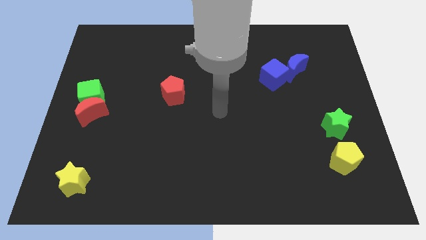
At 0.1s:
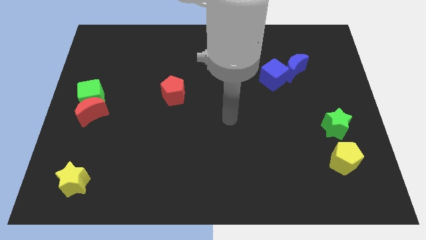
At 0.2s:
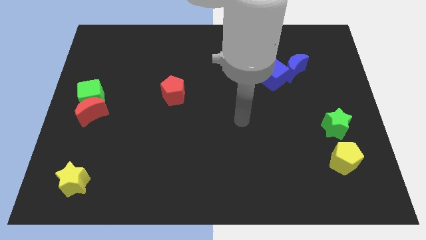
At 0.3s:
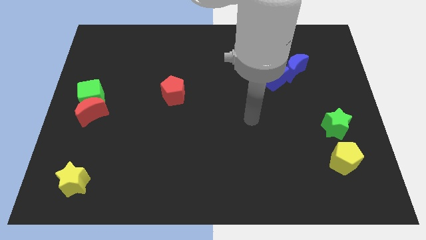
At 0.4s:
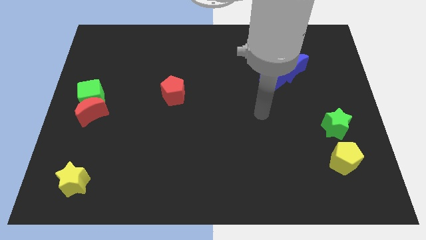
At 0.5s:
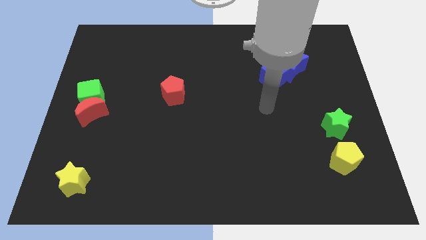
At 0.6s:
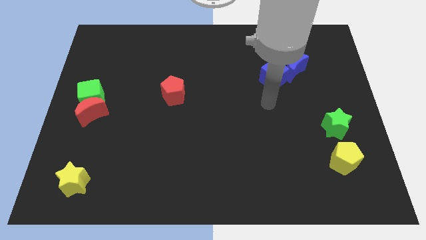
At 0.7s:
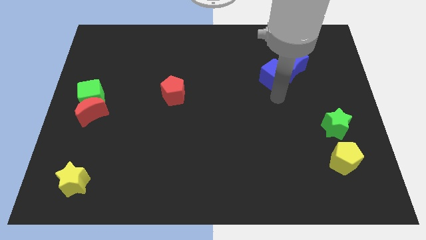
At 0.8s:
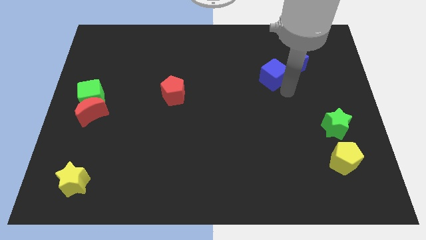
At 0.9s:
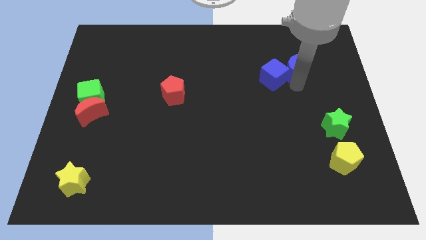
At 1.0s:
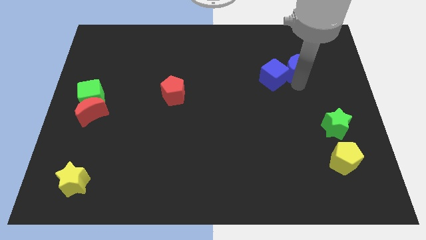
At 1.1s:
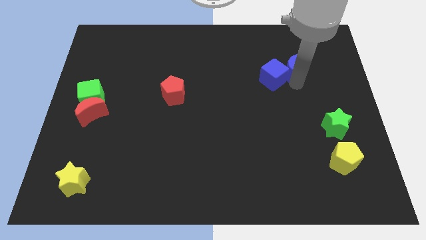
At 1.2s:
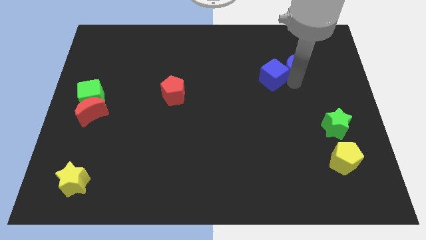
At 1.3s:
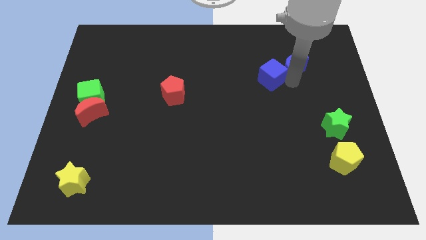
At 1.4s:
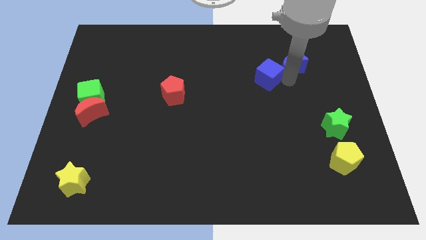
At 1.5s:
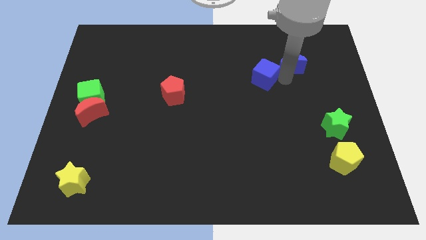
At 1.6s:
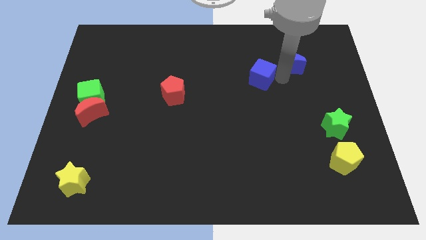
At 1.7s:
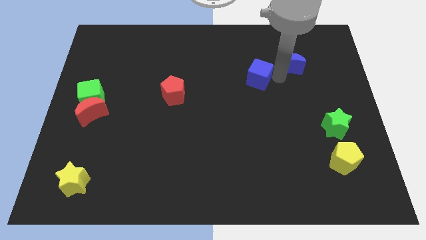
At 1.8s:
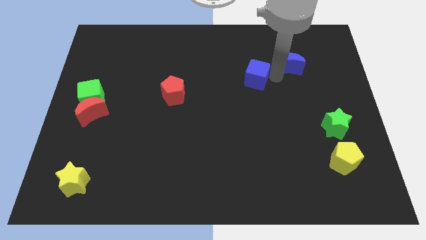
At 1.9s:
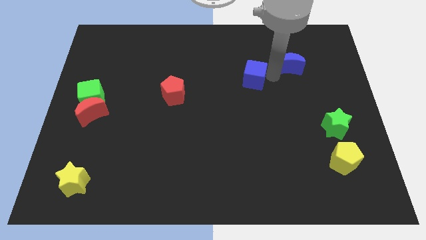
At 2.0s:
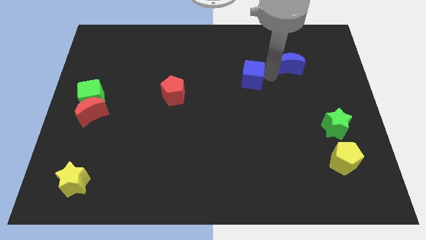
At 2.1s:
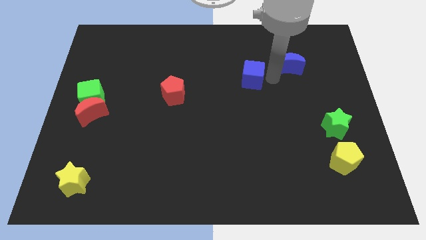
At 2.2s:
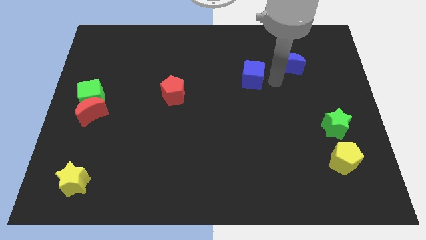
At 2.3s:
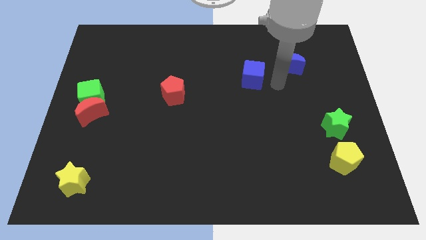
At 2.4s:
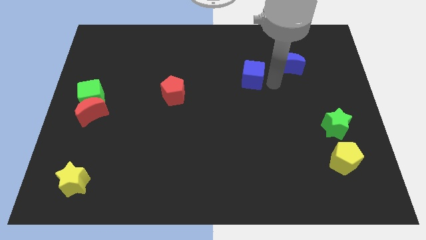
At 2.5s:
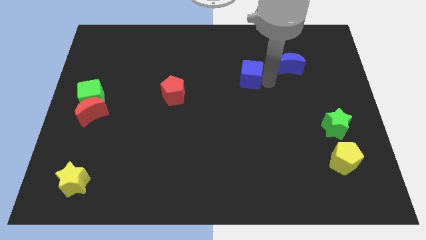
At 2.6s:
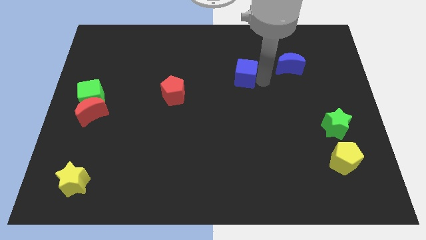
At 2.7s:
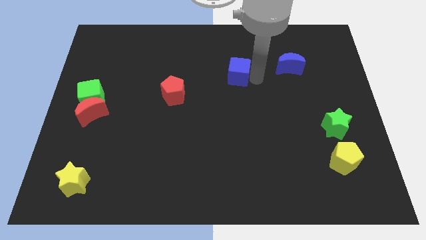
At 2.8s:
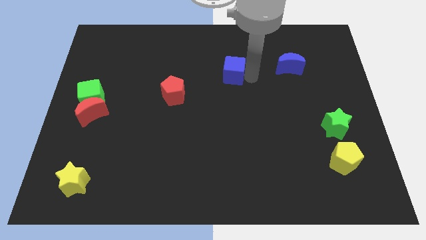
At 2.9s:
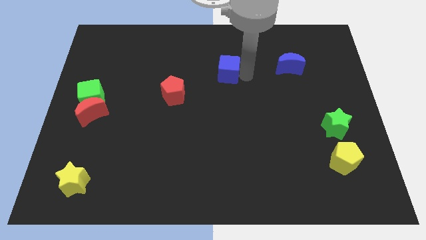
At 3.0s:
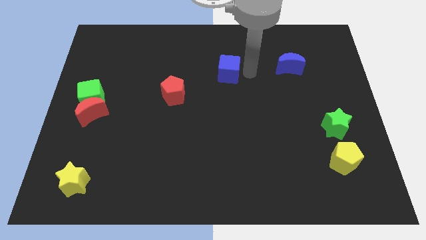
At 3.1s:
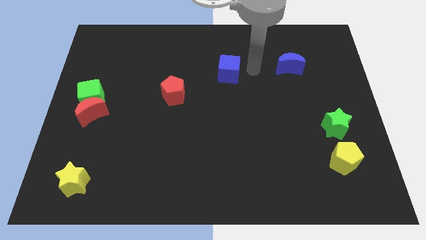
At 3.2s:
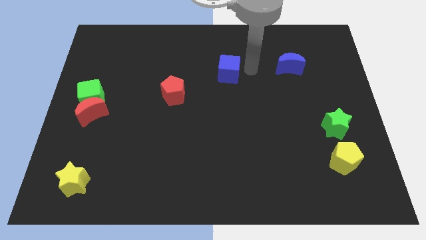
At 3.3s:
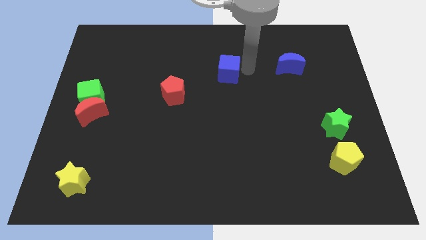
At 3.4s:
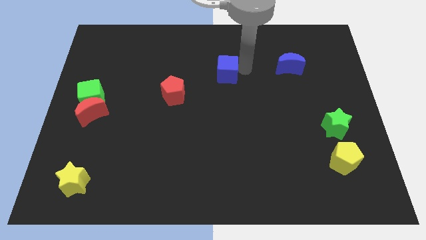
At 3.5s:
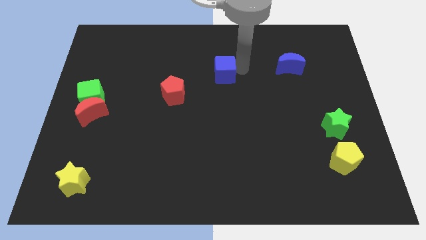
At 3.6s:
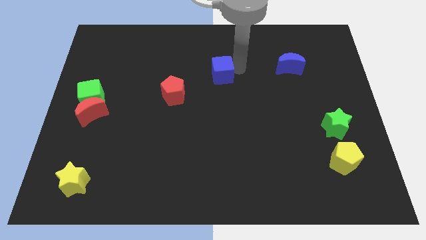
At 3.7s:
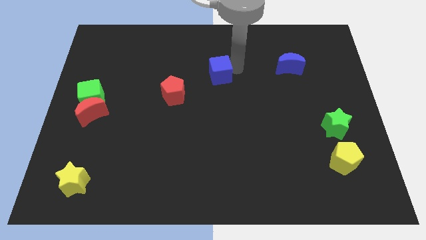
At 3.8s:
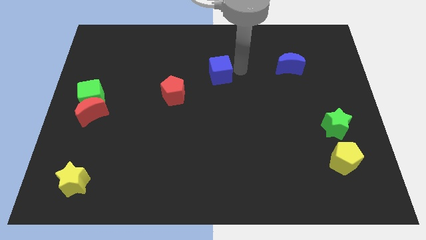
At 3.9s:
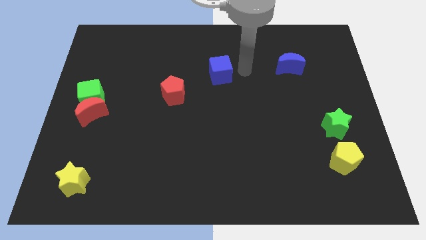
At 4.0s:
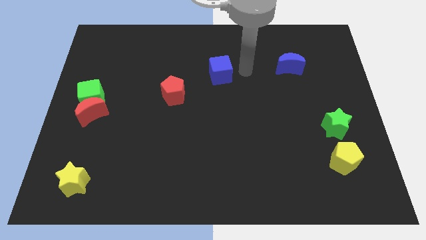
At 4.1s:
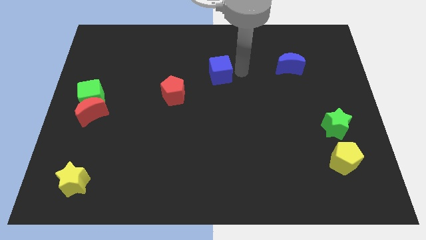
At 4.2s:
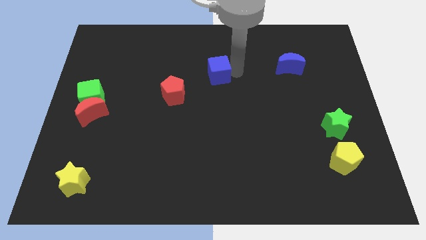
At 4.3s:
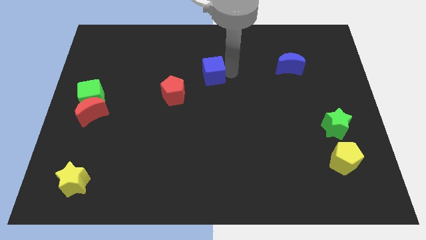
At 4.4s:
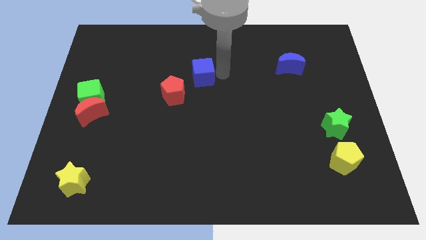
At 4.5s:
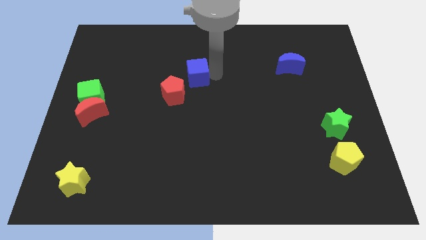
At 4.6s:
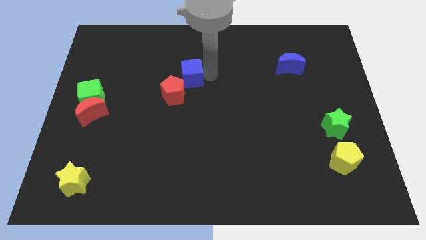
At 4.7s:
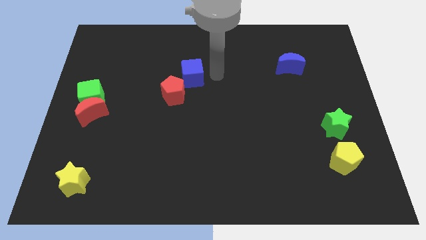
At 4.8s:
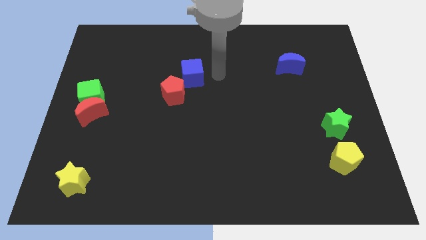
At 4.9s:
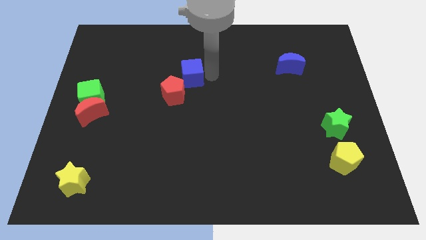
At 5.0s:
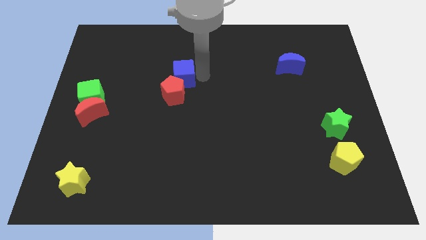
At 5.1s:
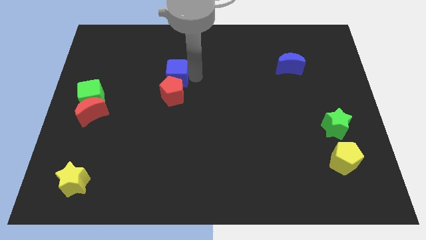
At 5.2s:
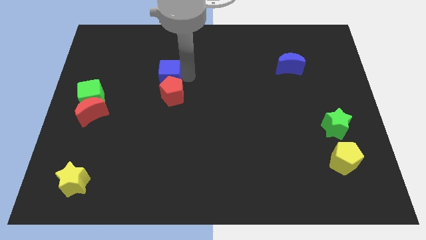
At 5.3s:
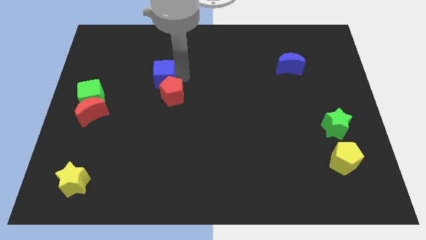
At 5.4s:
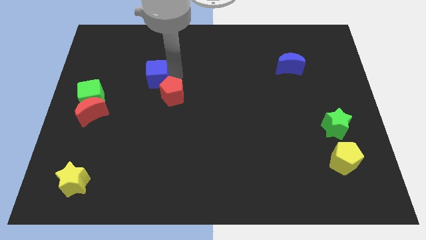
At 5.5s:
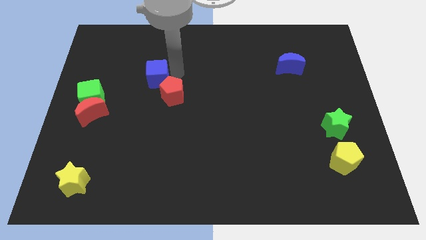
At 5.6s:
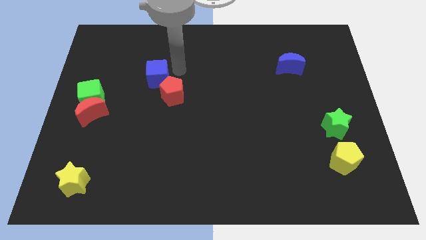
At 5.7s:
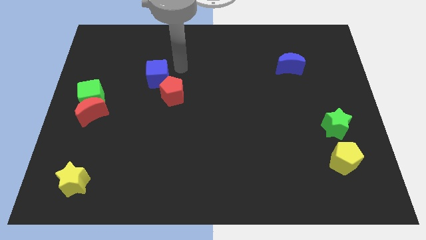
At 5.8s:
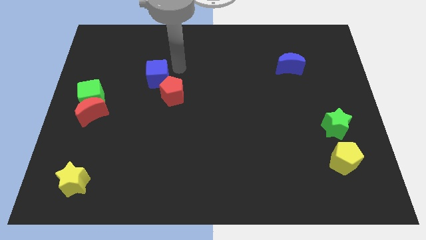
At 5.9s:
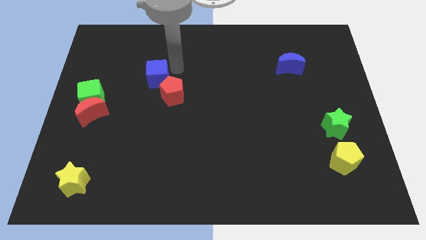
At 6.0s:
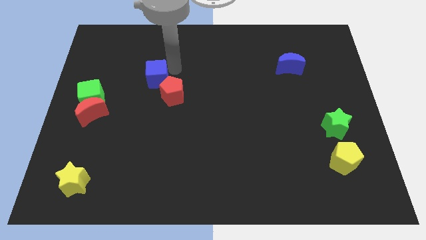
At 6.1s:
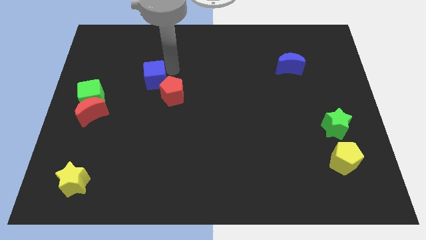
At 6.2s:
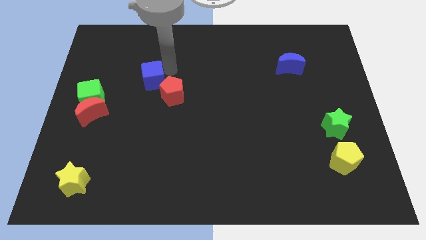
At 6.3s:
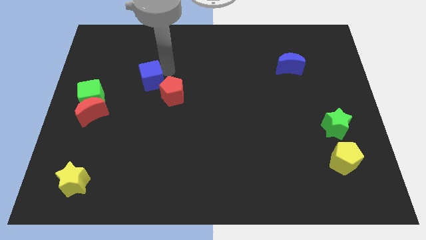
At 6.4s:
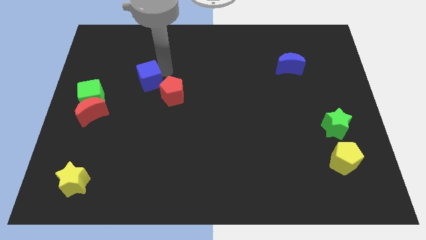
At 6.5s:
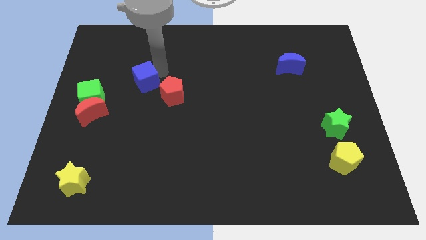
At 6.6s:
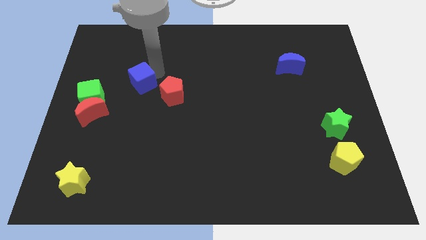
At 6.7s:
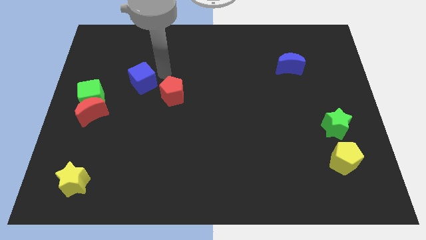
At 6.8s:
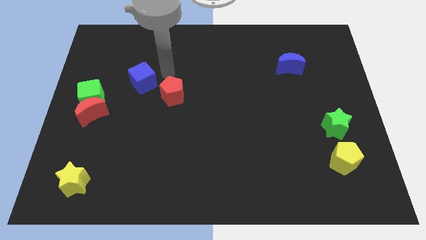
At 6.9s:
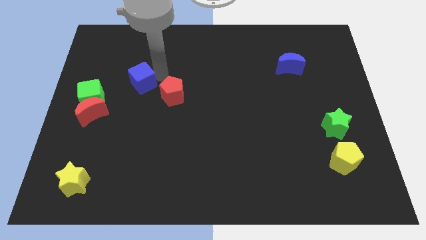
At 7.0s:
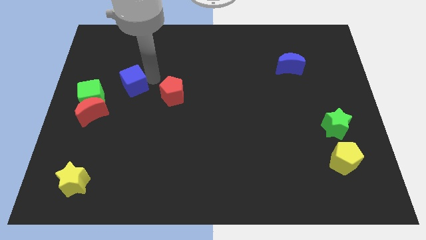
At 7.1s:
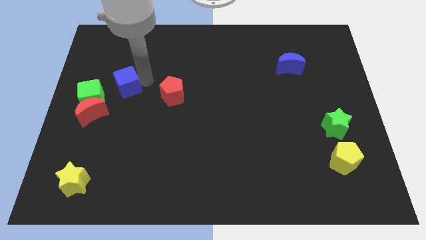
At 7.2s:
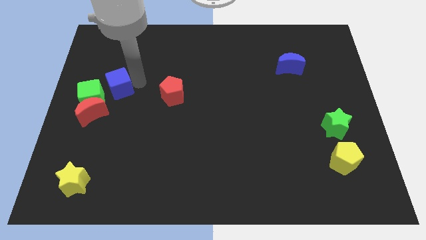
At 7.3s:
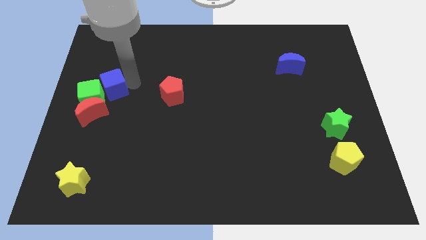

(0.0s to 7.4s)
slide the blue cube close to the green cube
